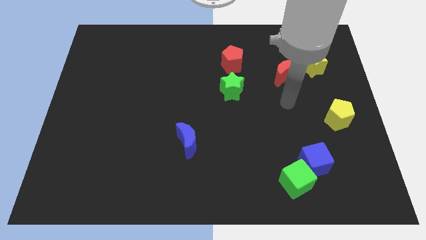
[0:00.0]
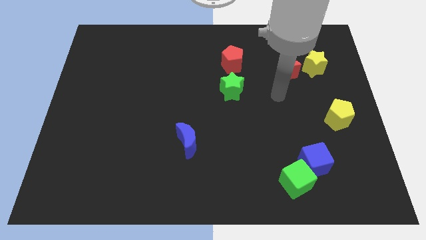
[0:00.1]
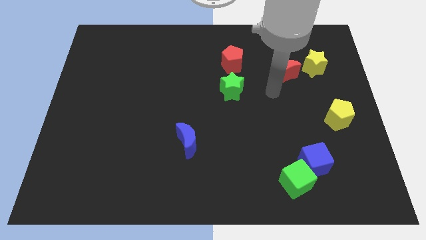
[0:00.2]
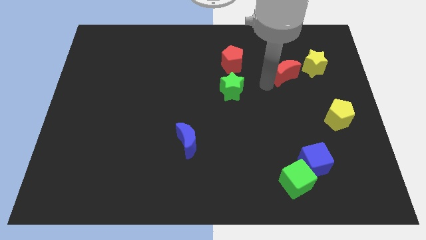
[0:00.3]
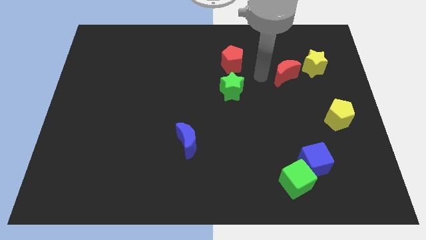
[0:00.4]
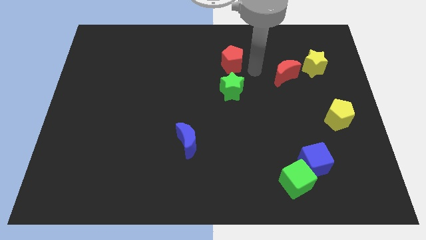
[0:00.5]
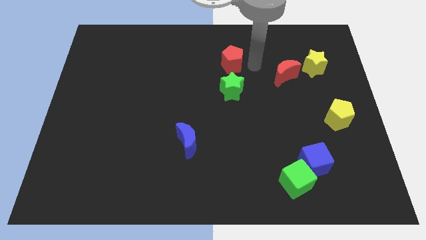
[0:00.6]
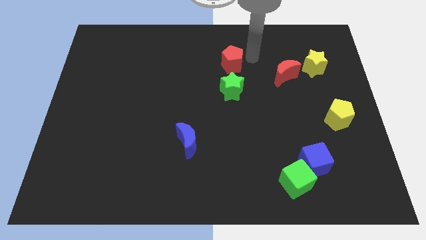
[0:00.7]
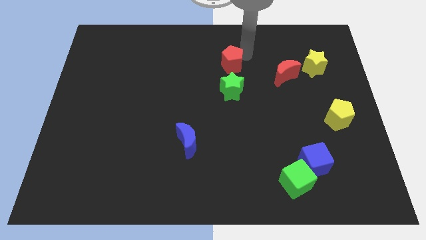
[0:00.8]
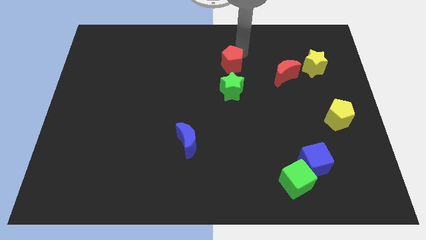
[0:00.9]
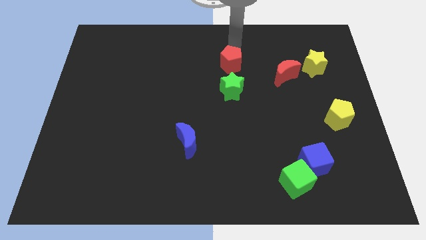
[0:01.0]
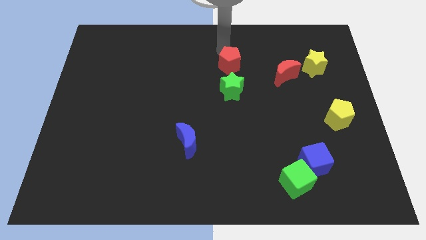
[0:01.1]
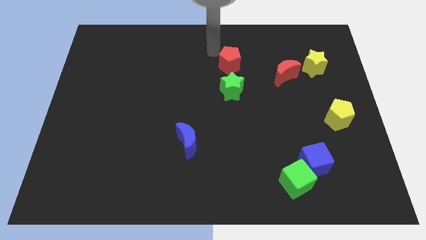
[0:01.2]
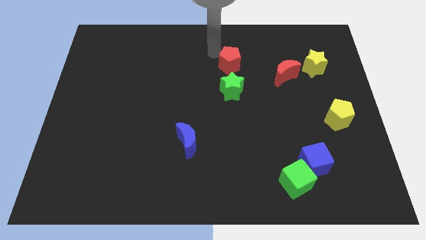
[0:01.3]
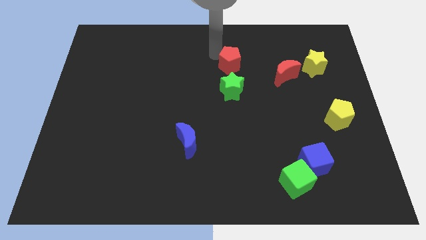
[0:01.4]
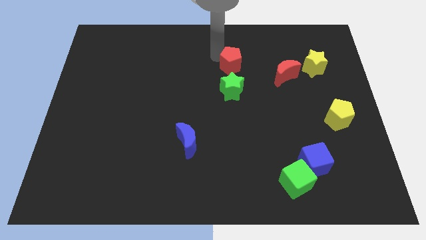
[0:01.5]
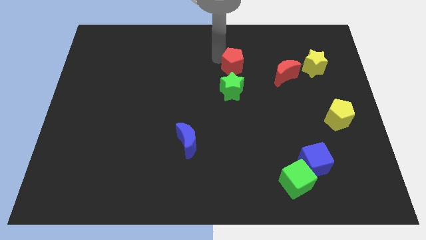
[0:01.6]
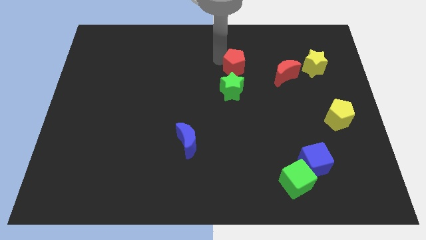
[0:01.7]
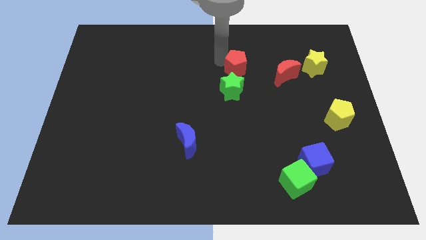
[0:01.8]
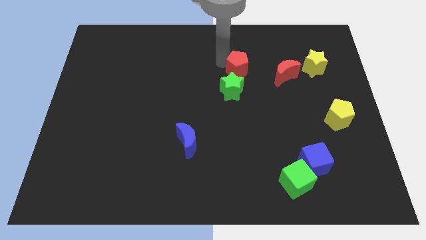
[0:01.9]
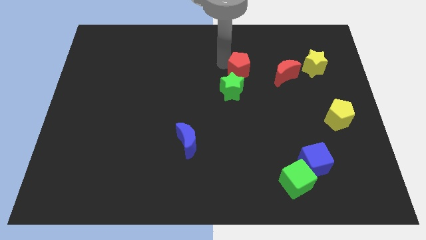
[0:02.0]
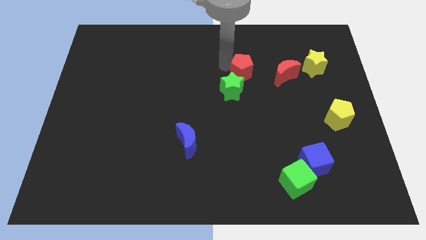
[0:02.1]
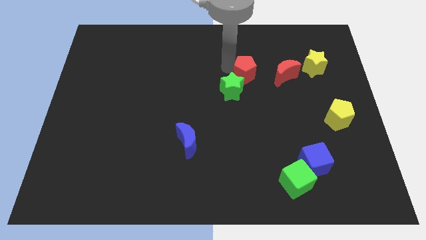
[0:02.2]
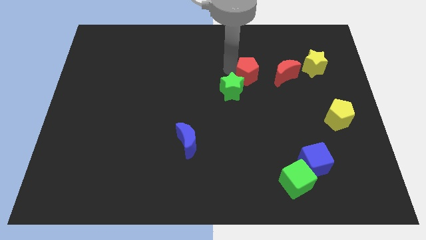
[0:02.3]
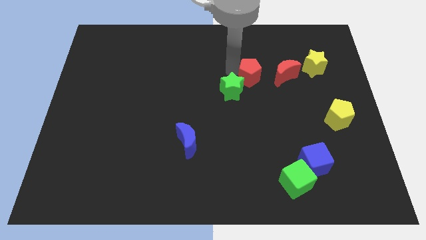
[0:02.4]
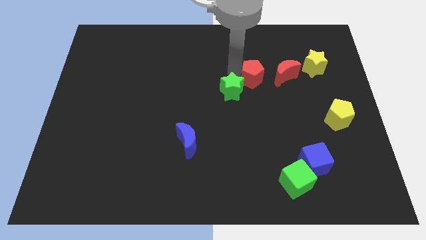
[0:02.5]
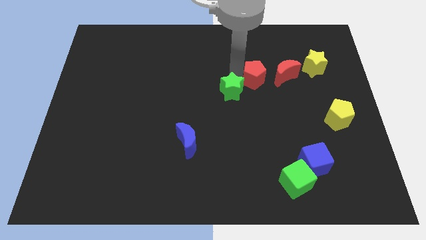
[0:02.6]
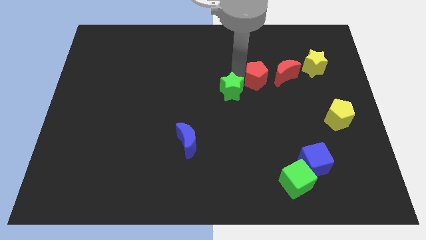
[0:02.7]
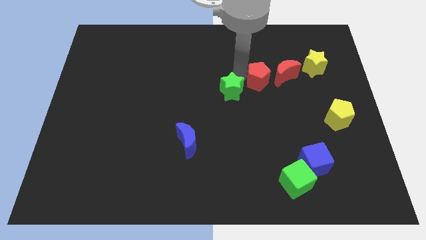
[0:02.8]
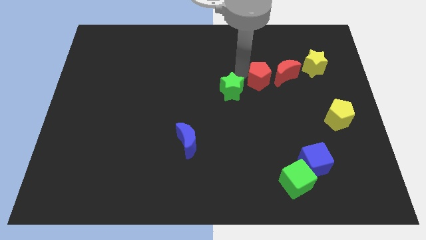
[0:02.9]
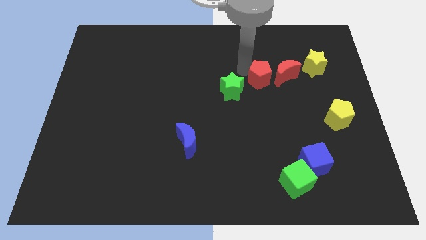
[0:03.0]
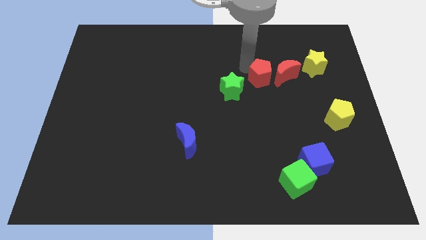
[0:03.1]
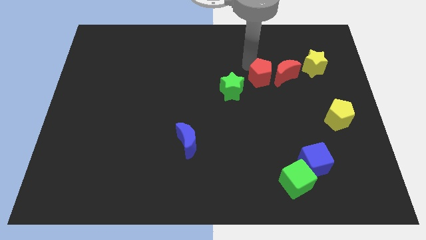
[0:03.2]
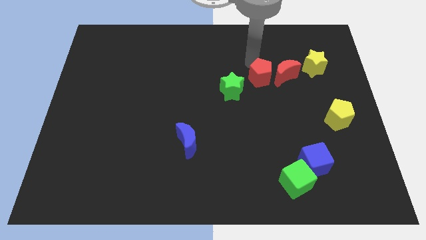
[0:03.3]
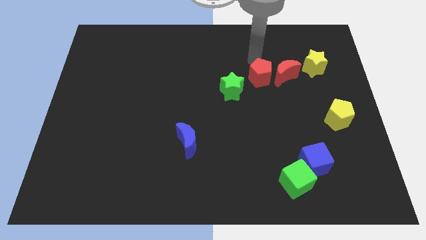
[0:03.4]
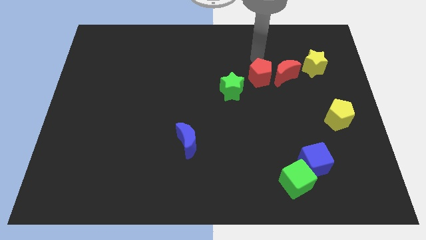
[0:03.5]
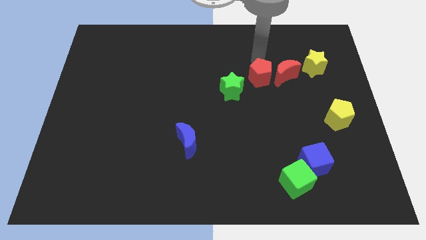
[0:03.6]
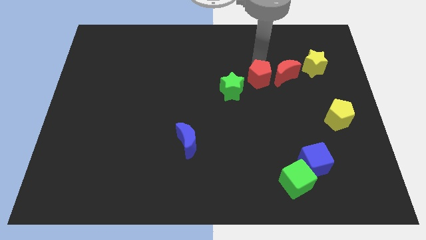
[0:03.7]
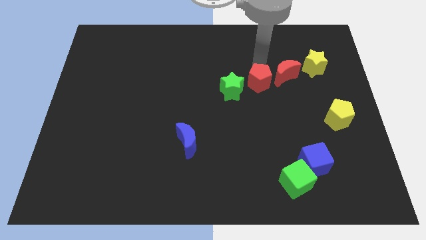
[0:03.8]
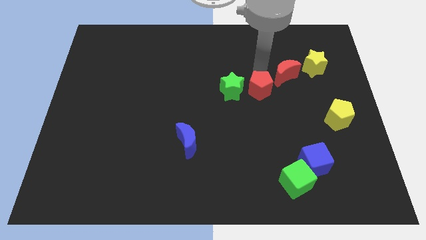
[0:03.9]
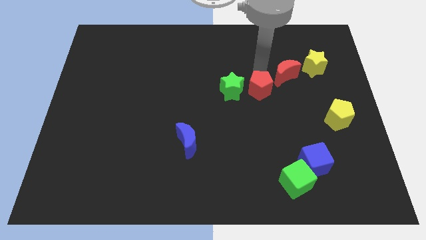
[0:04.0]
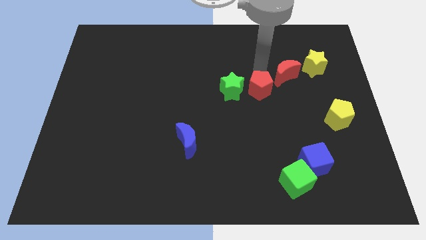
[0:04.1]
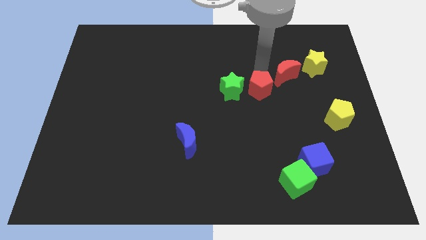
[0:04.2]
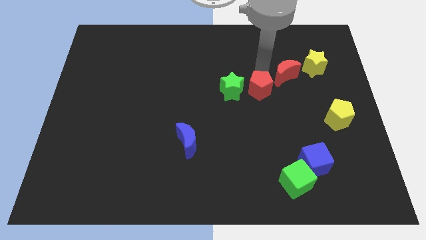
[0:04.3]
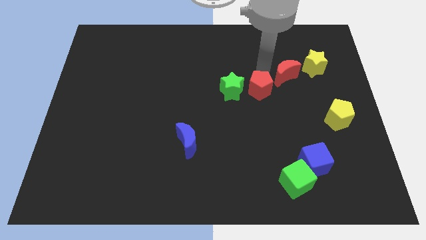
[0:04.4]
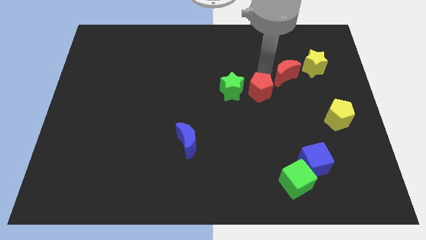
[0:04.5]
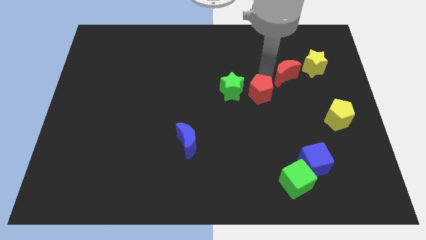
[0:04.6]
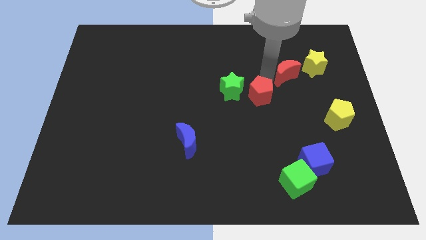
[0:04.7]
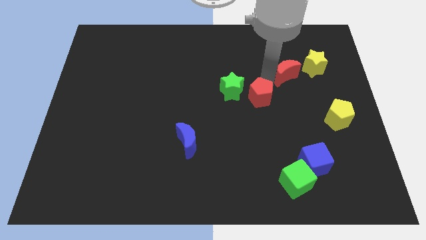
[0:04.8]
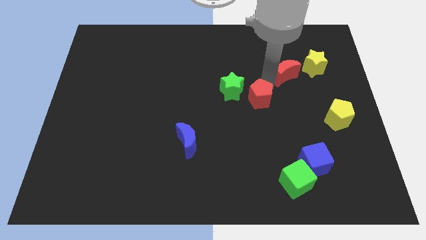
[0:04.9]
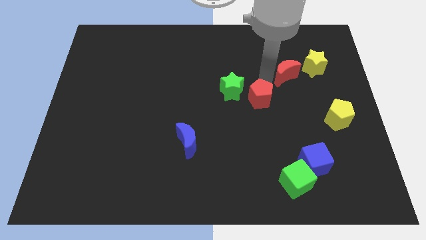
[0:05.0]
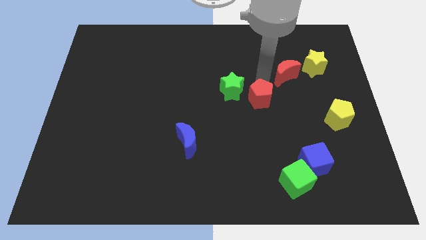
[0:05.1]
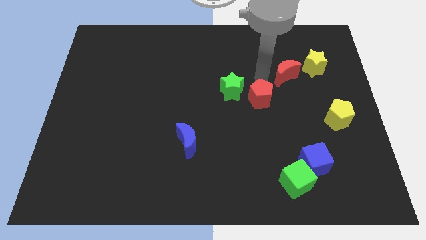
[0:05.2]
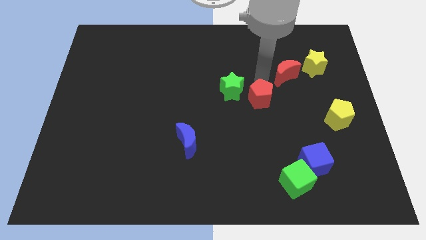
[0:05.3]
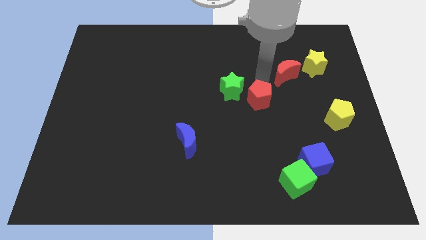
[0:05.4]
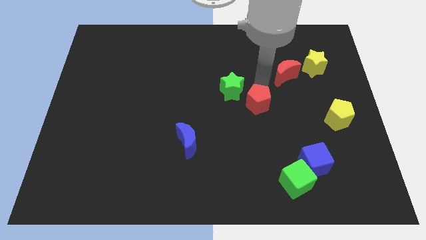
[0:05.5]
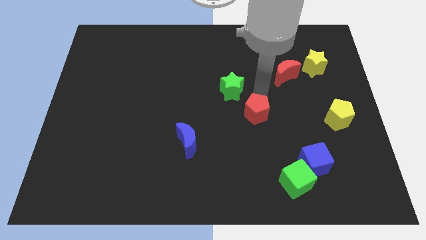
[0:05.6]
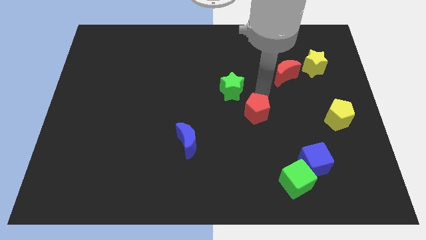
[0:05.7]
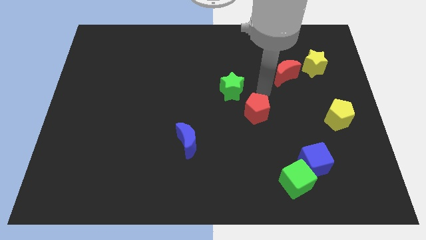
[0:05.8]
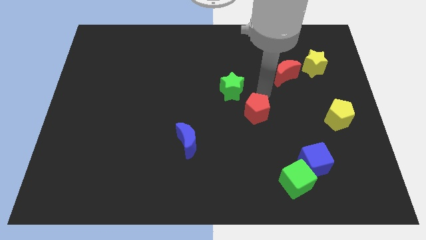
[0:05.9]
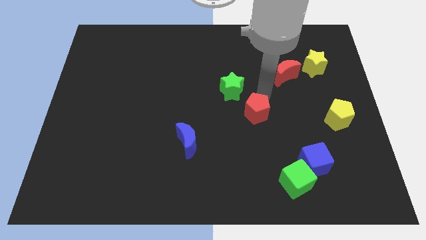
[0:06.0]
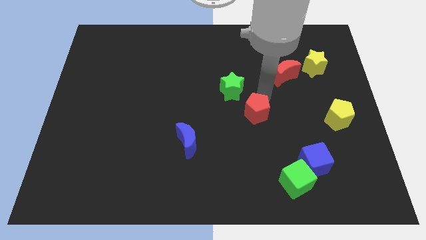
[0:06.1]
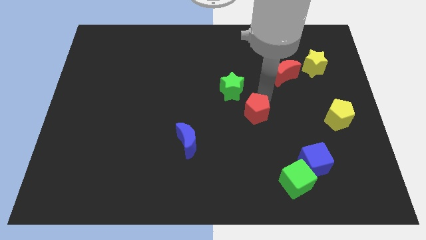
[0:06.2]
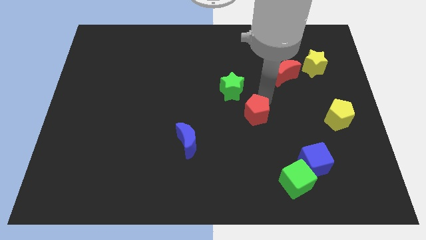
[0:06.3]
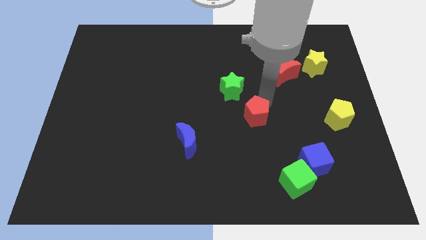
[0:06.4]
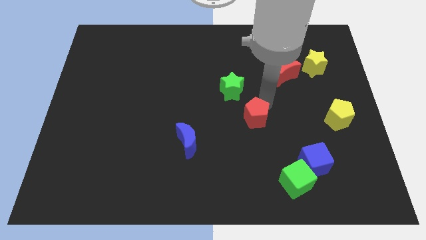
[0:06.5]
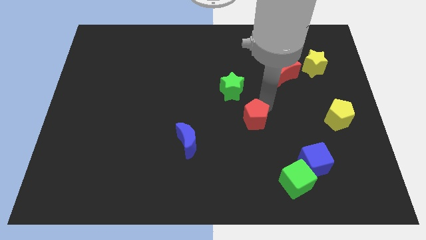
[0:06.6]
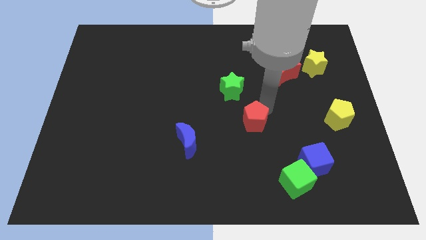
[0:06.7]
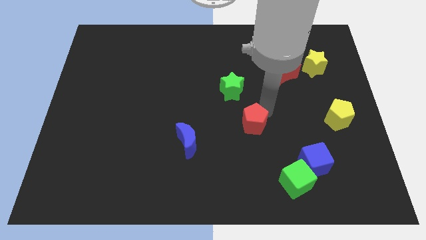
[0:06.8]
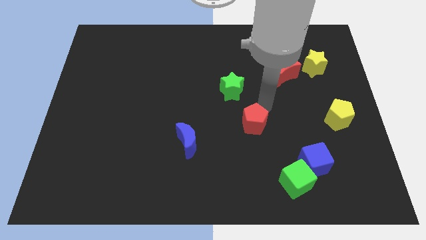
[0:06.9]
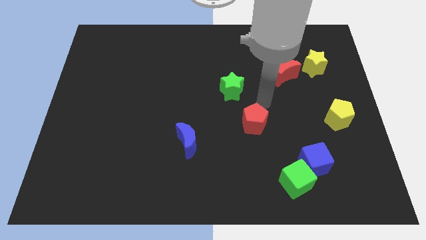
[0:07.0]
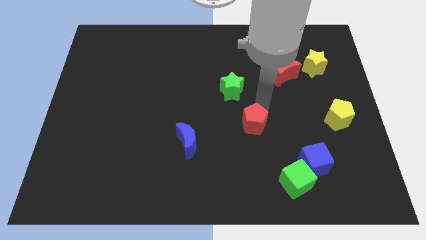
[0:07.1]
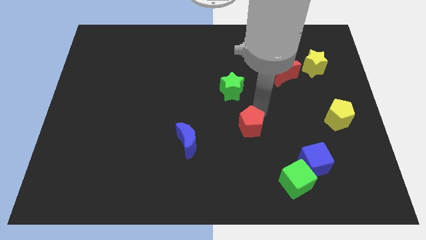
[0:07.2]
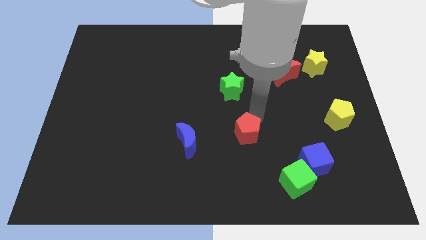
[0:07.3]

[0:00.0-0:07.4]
slide the red pentagon downwards

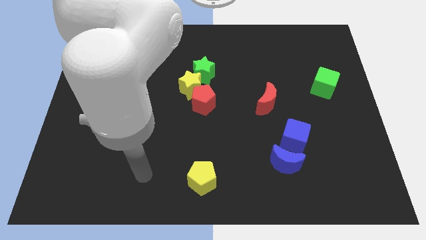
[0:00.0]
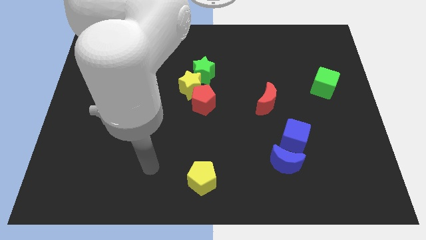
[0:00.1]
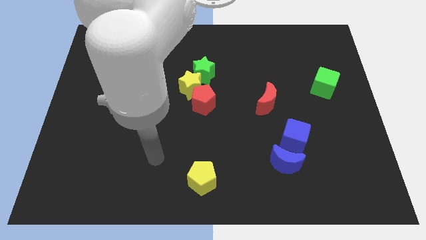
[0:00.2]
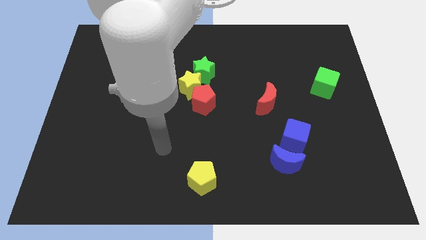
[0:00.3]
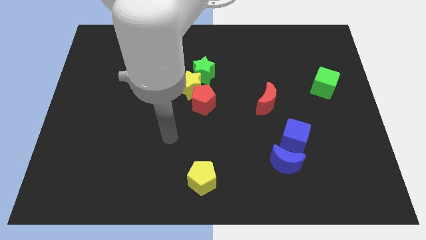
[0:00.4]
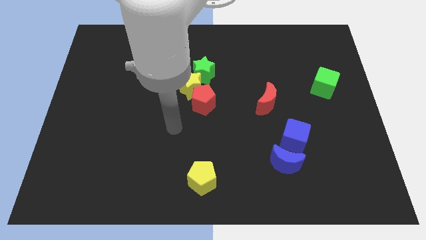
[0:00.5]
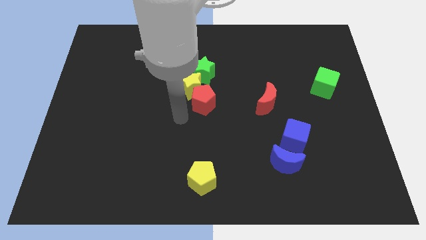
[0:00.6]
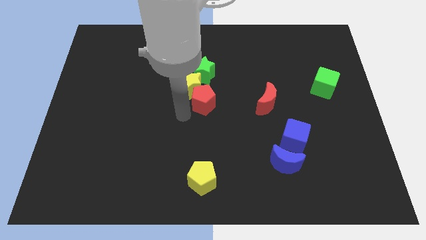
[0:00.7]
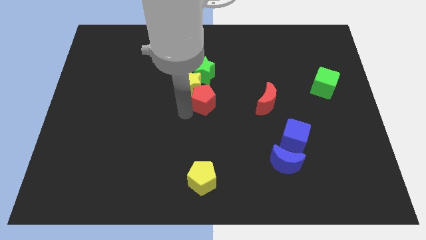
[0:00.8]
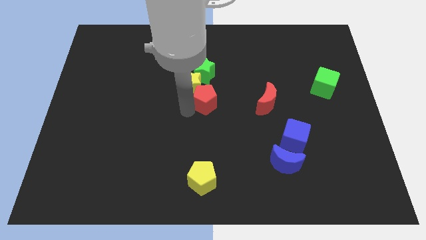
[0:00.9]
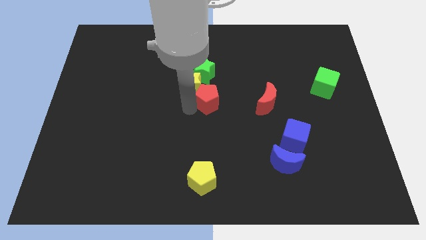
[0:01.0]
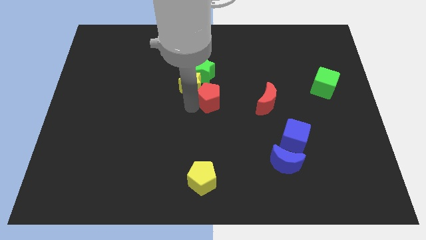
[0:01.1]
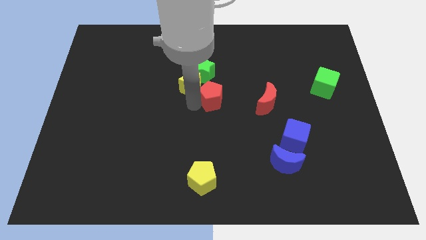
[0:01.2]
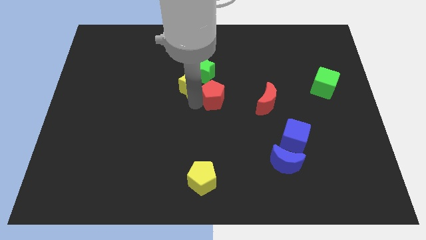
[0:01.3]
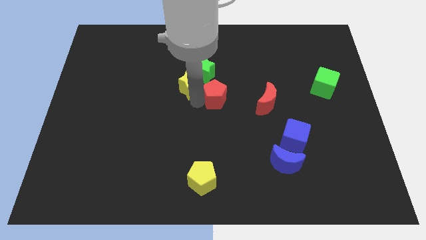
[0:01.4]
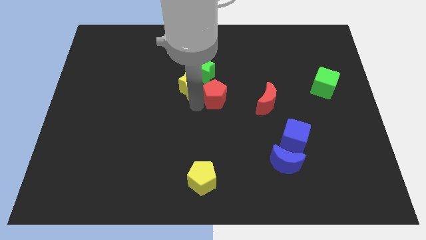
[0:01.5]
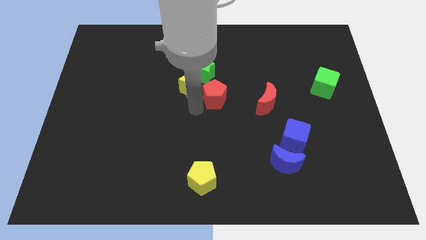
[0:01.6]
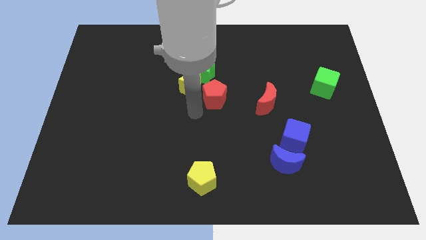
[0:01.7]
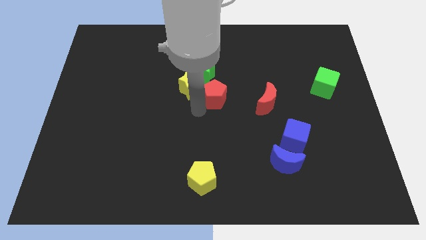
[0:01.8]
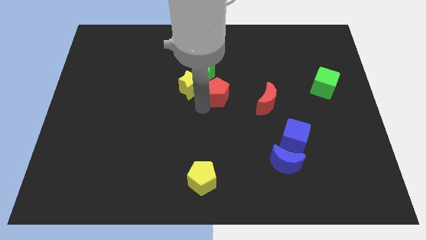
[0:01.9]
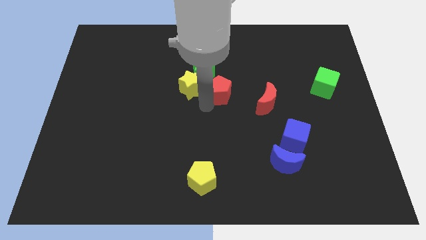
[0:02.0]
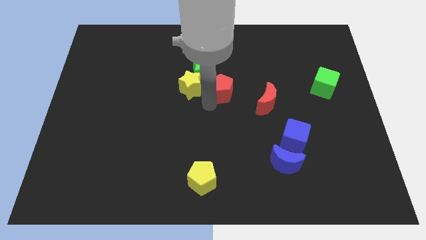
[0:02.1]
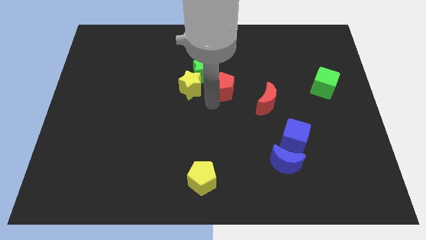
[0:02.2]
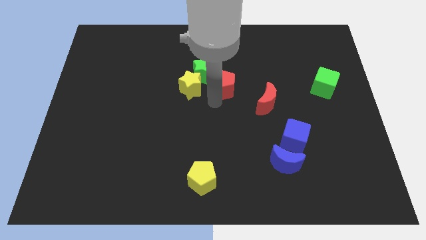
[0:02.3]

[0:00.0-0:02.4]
move the red pentagon slightly upwards and then to the right
